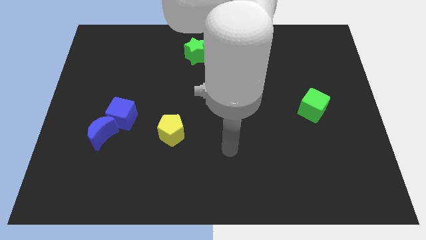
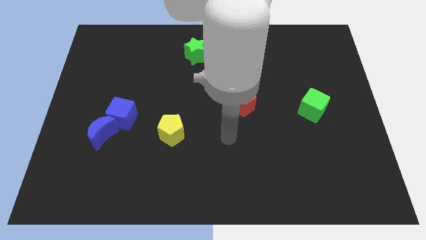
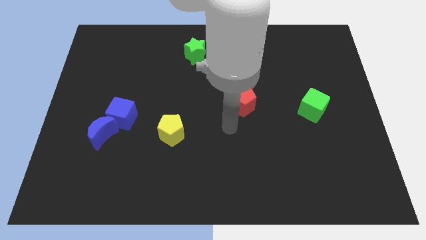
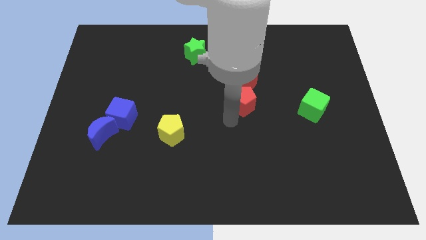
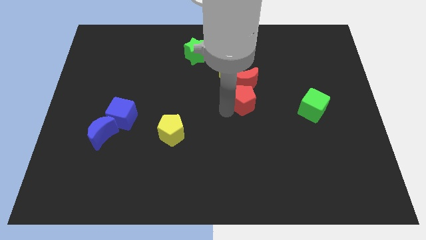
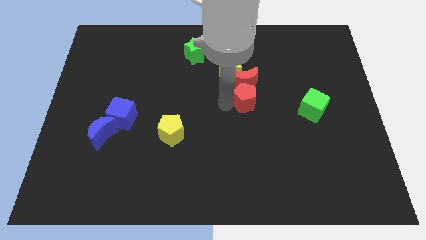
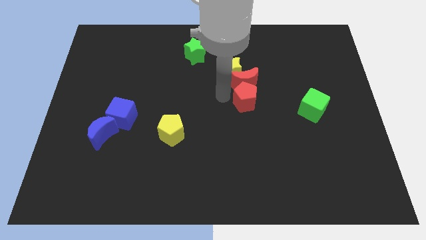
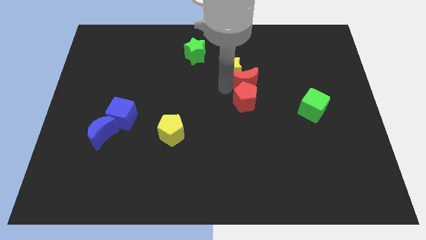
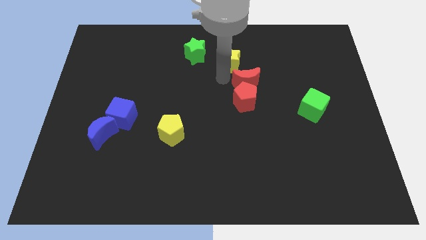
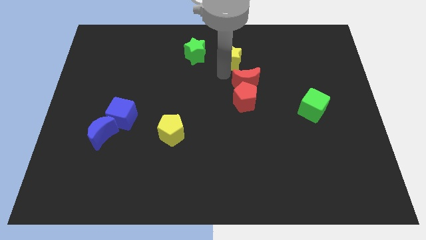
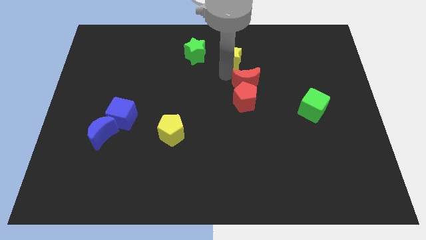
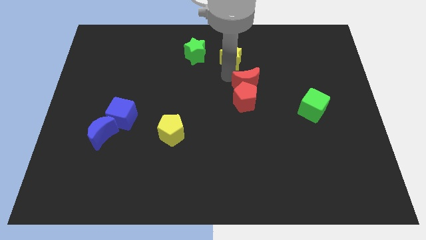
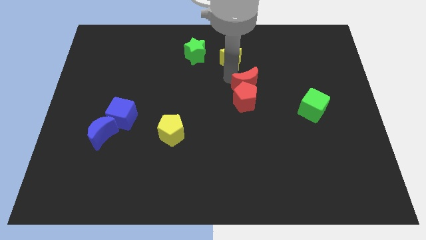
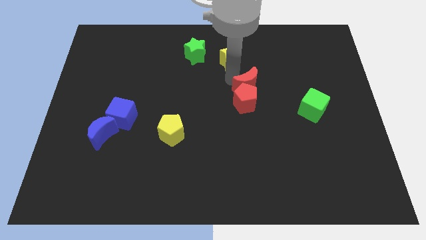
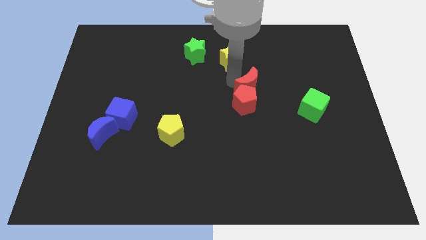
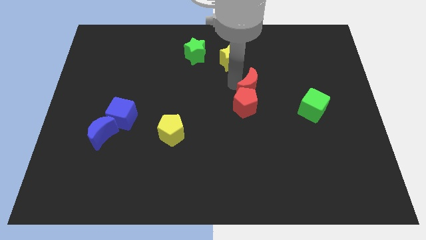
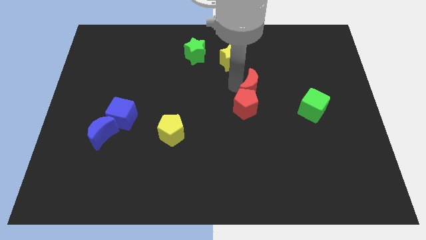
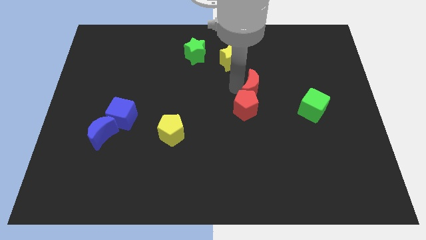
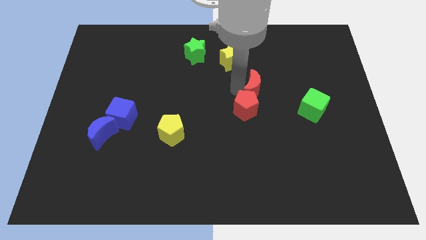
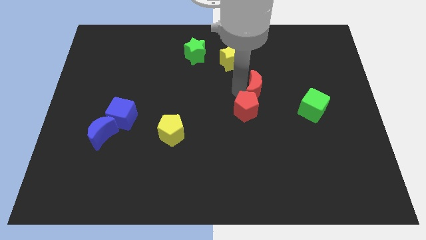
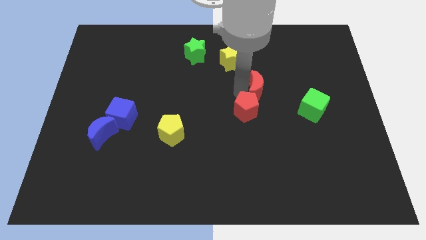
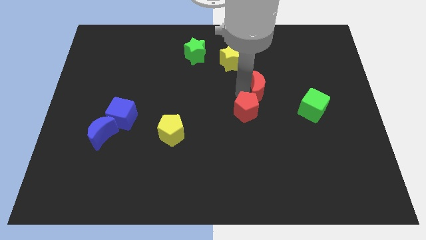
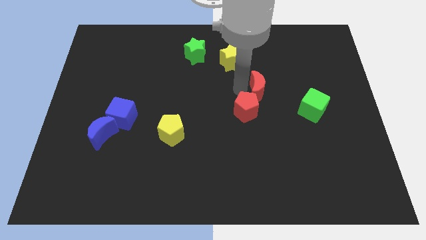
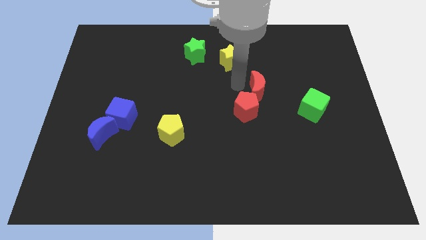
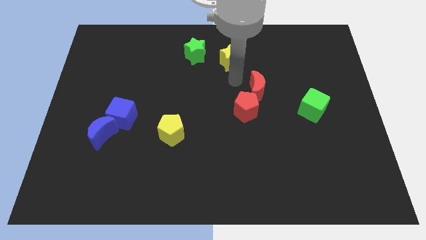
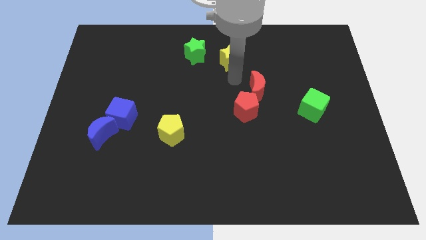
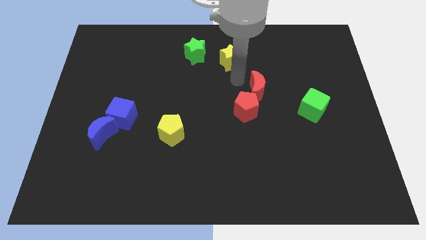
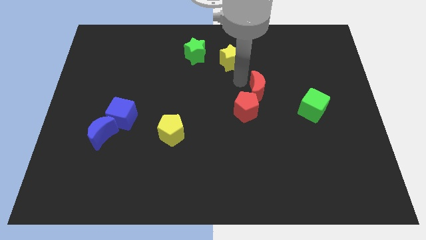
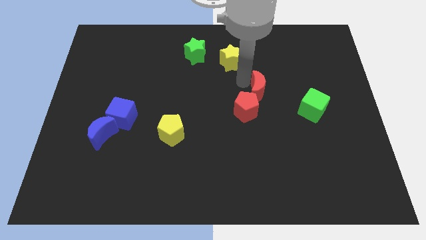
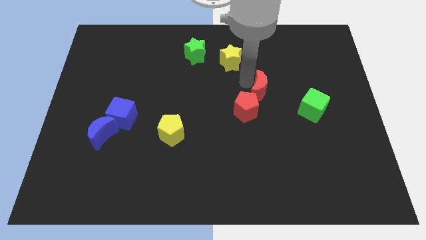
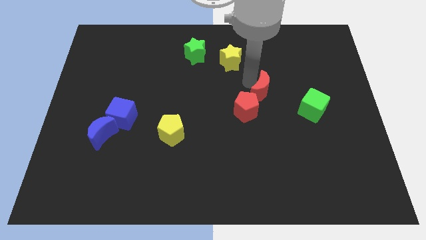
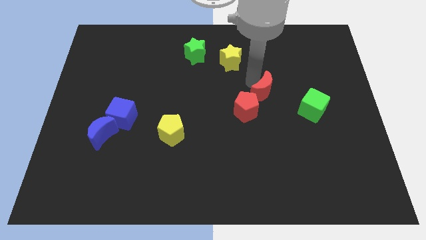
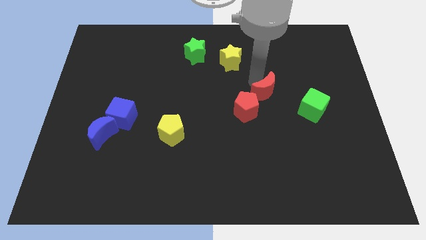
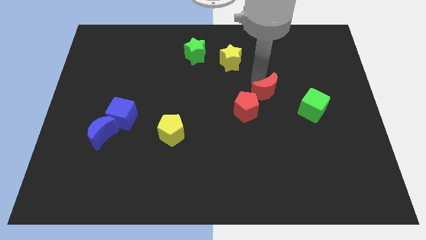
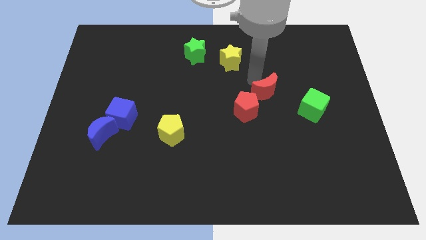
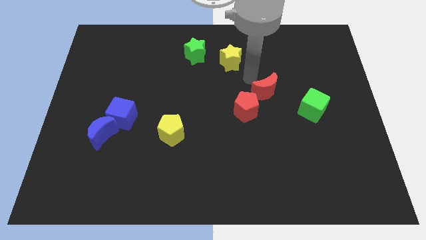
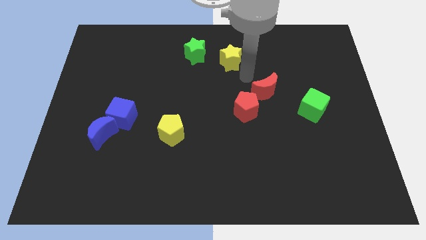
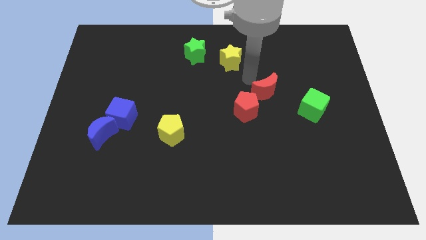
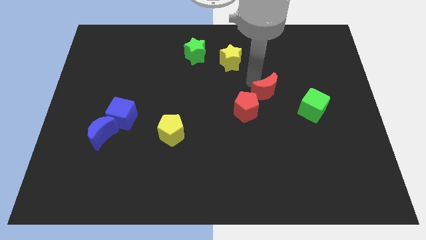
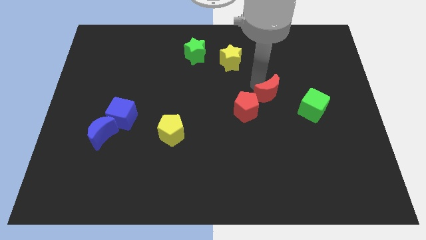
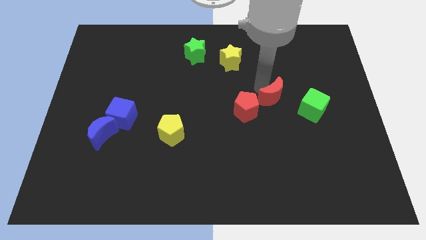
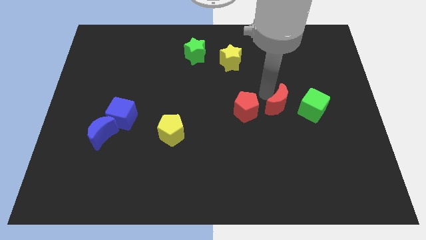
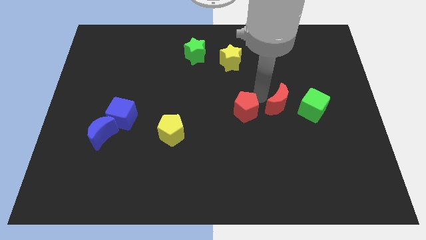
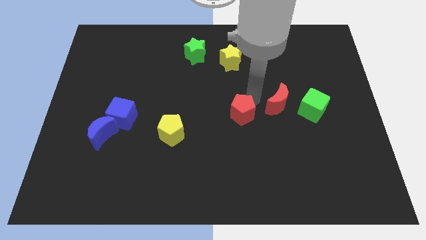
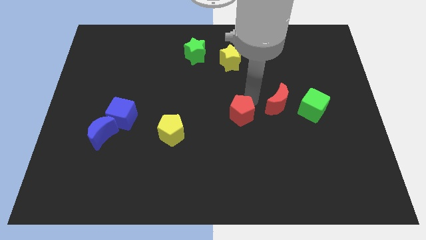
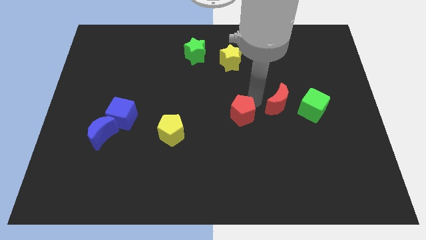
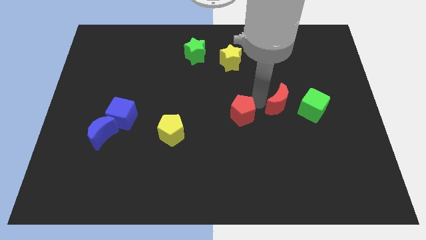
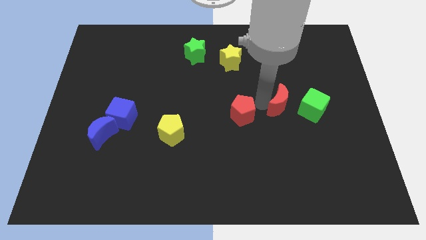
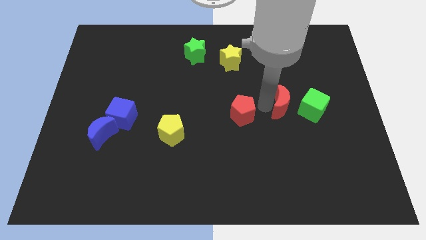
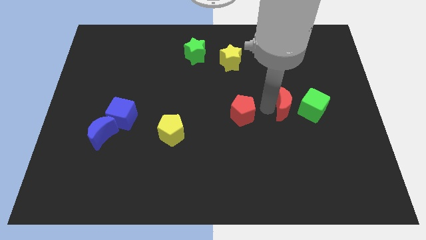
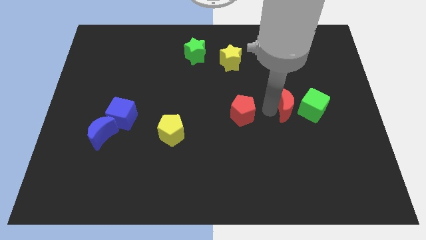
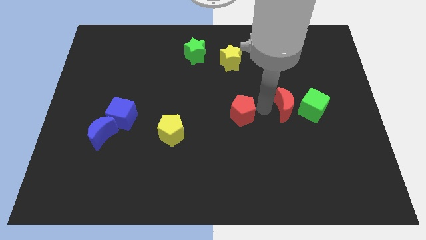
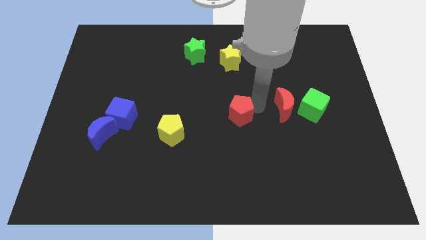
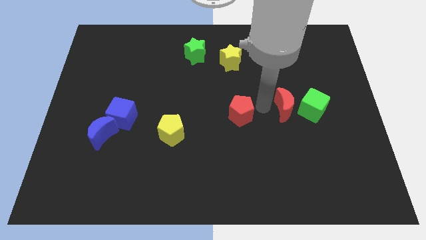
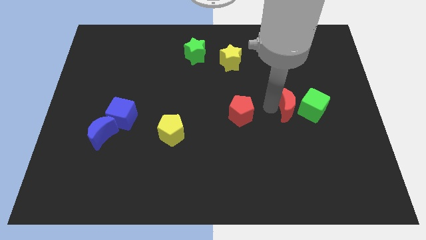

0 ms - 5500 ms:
put the red moon to the green cube
